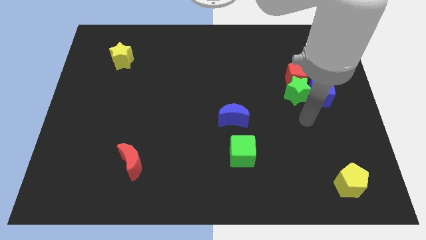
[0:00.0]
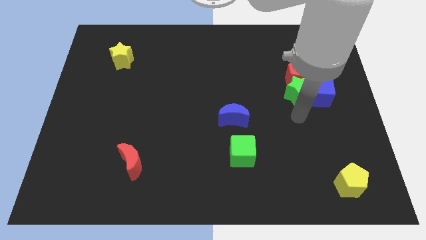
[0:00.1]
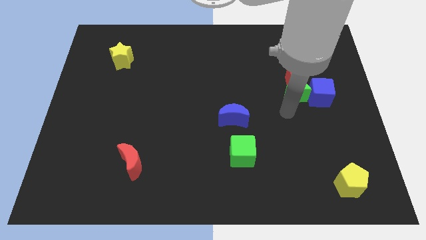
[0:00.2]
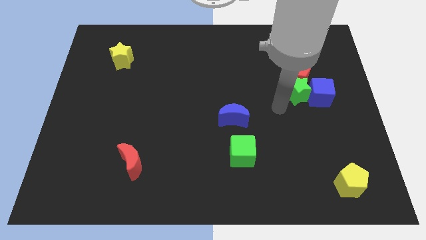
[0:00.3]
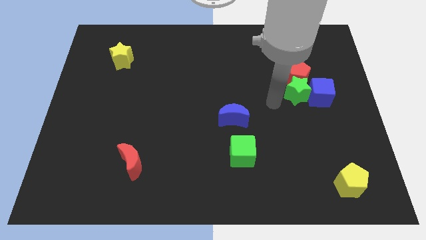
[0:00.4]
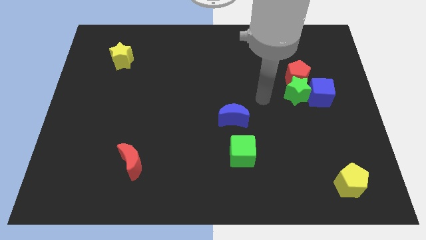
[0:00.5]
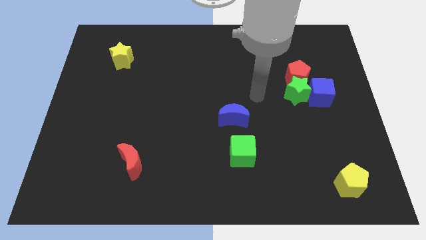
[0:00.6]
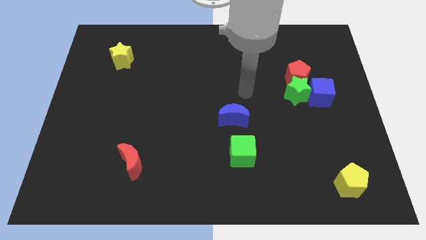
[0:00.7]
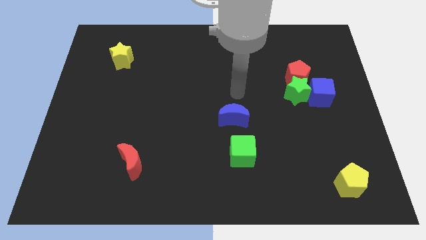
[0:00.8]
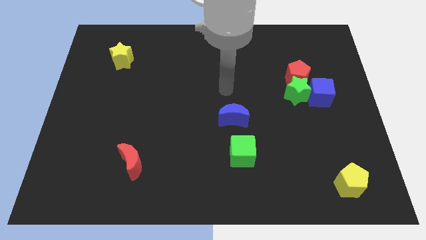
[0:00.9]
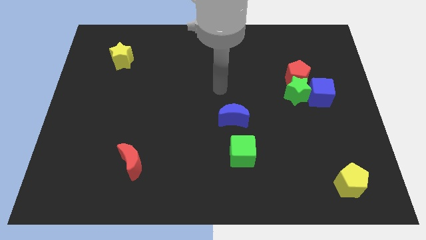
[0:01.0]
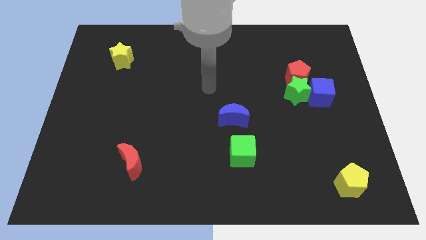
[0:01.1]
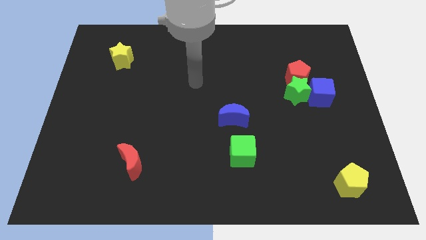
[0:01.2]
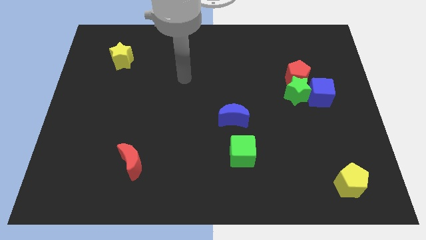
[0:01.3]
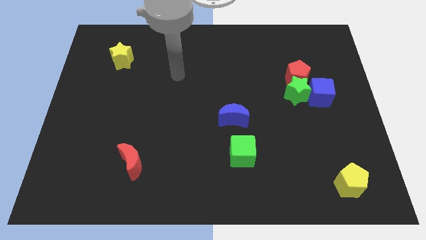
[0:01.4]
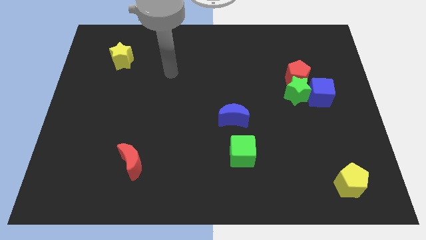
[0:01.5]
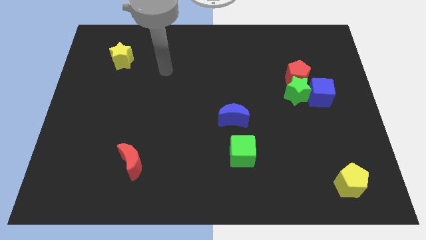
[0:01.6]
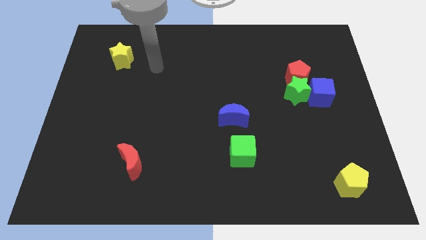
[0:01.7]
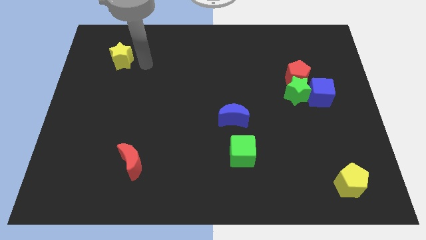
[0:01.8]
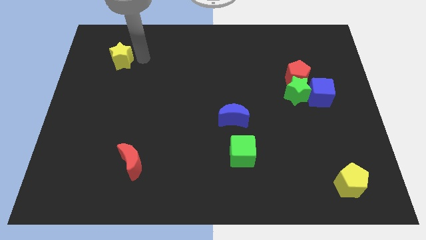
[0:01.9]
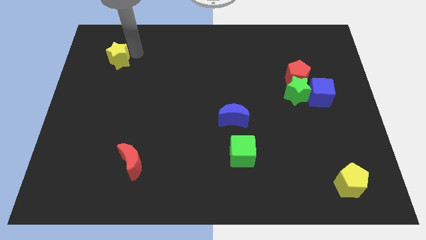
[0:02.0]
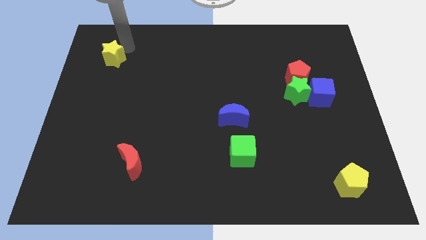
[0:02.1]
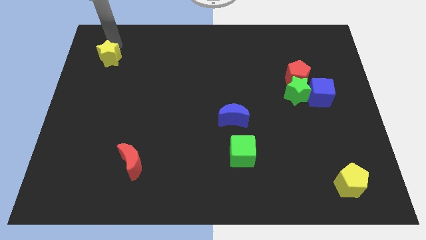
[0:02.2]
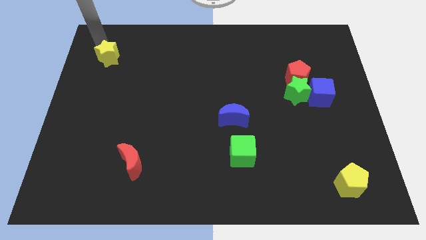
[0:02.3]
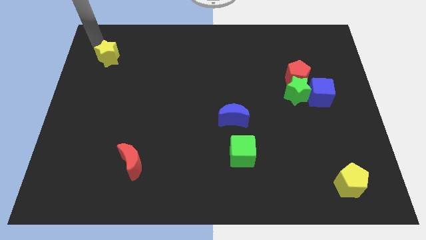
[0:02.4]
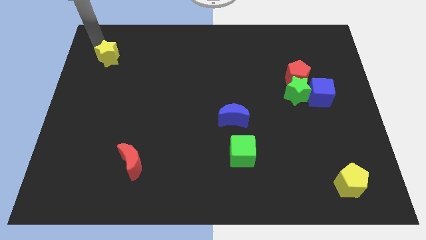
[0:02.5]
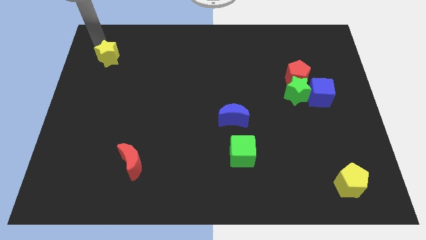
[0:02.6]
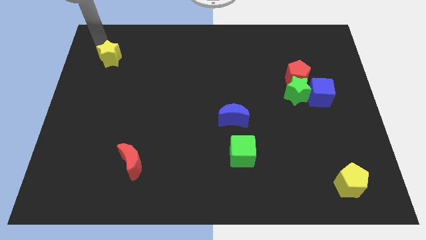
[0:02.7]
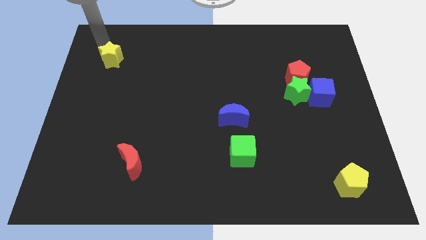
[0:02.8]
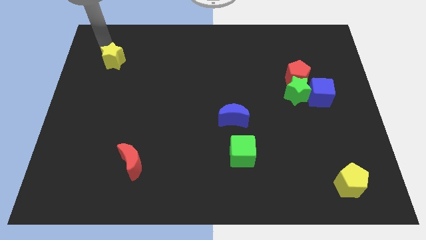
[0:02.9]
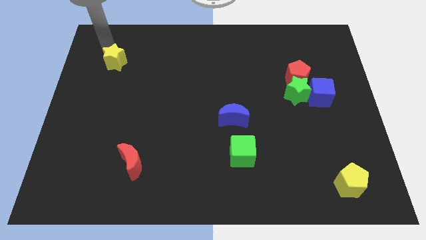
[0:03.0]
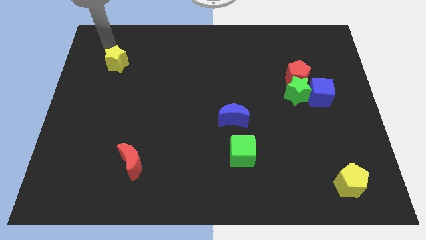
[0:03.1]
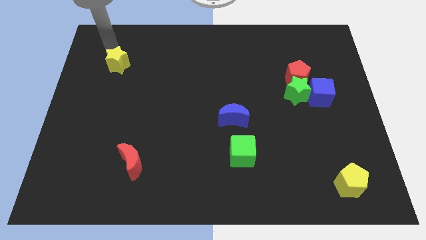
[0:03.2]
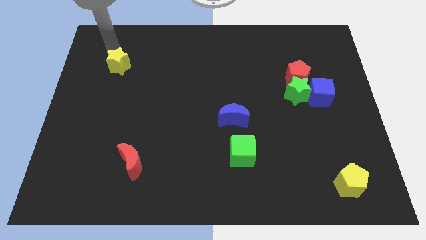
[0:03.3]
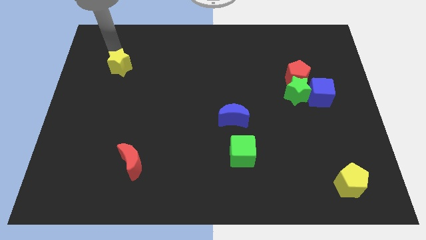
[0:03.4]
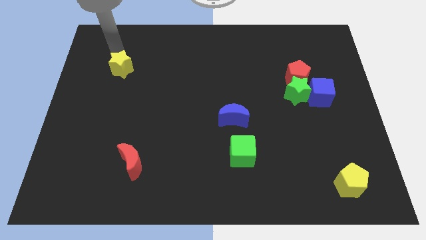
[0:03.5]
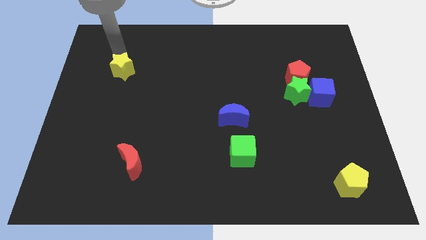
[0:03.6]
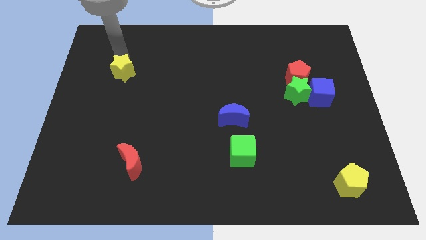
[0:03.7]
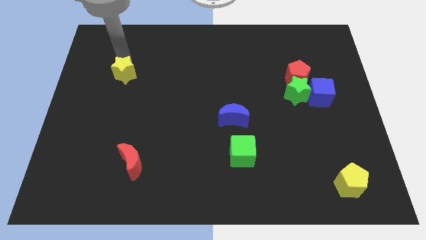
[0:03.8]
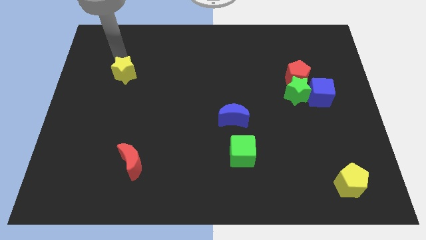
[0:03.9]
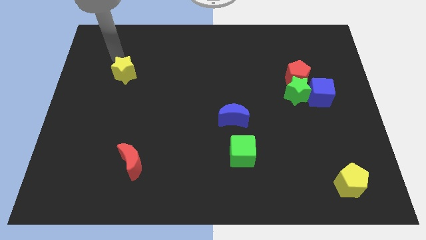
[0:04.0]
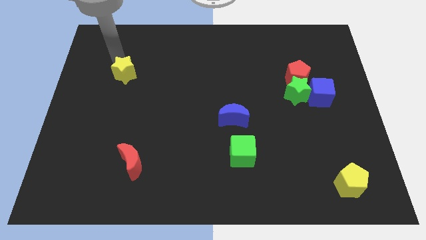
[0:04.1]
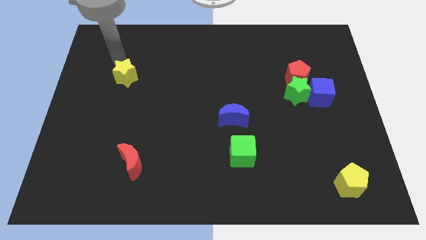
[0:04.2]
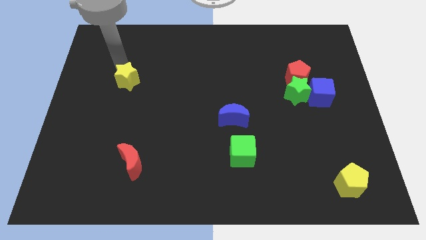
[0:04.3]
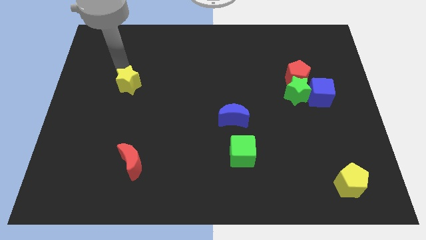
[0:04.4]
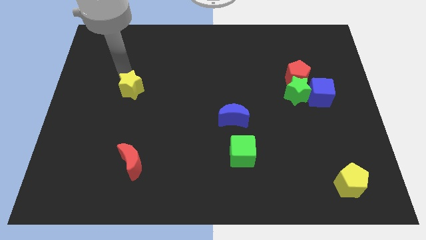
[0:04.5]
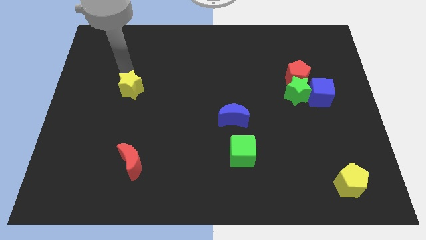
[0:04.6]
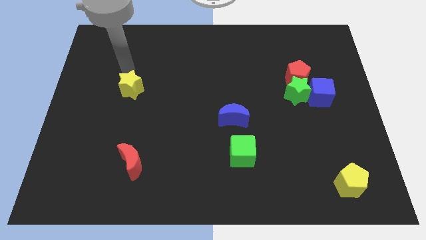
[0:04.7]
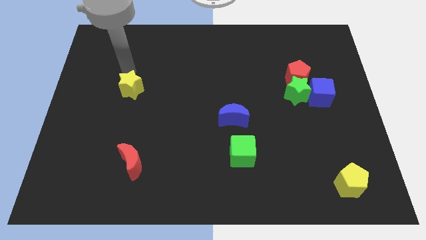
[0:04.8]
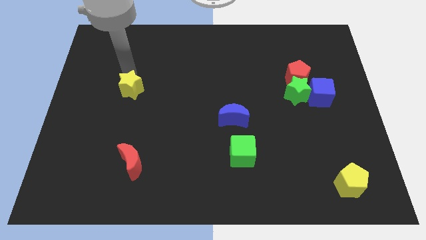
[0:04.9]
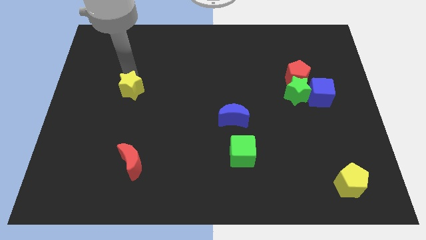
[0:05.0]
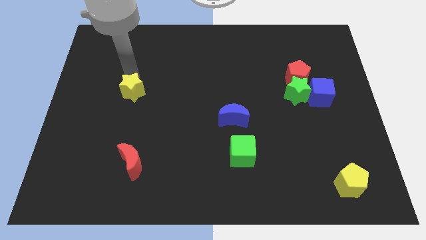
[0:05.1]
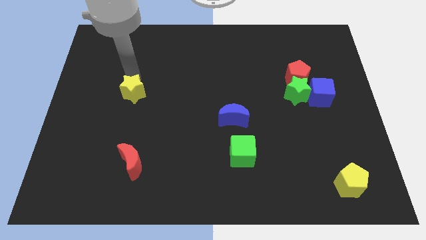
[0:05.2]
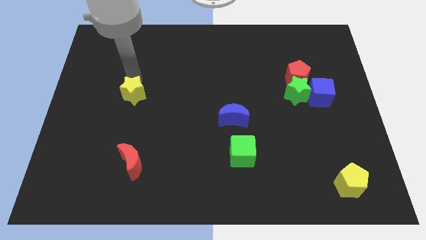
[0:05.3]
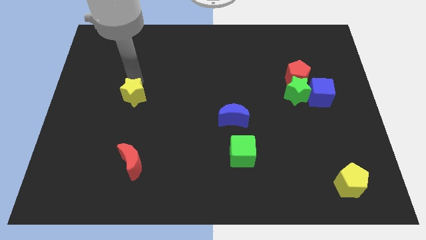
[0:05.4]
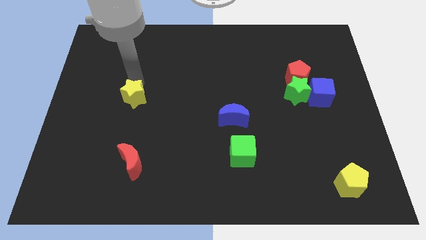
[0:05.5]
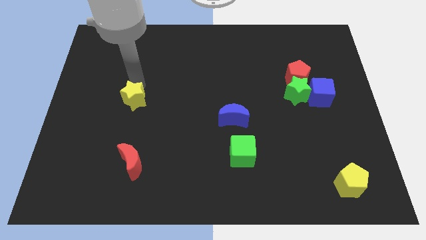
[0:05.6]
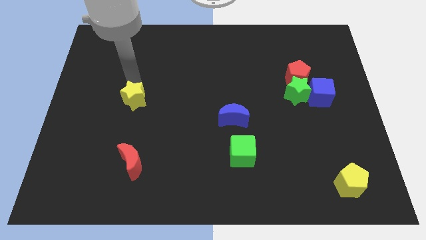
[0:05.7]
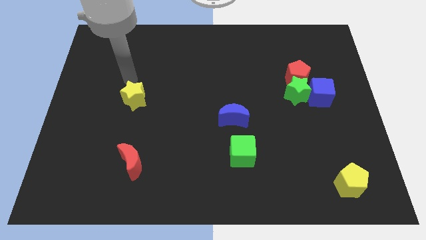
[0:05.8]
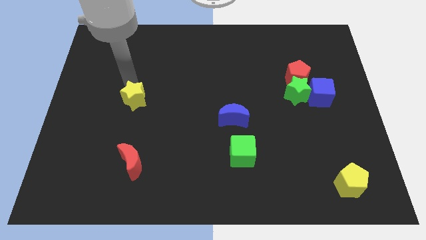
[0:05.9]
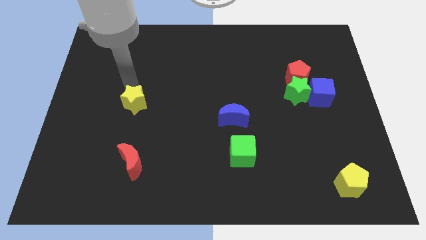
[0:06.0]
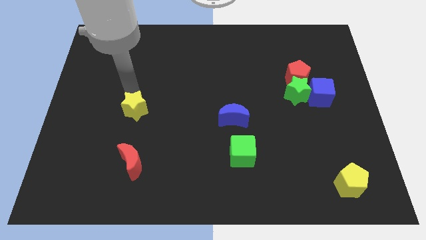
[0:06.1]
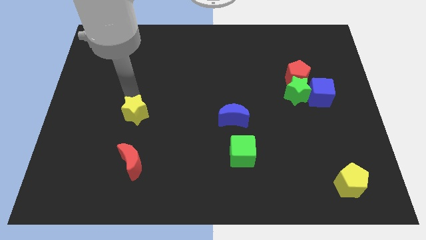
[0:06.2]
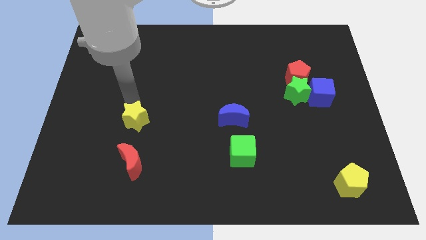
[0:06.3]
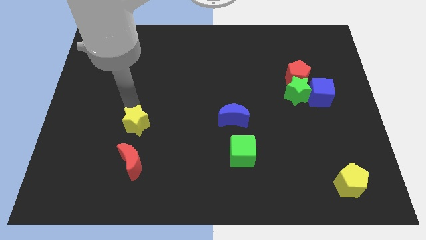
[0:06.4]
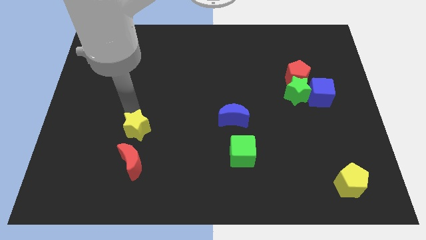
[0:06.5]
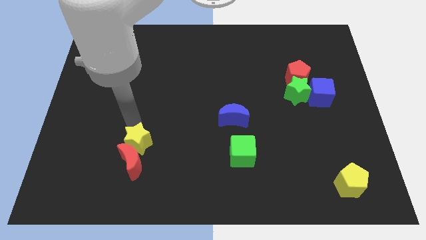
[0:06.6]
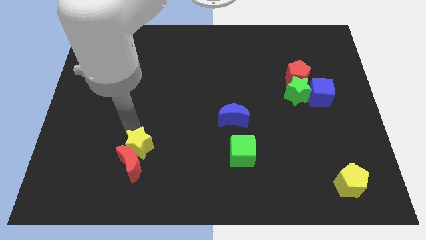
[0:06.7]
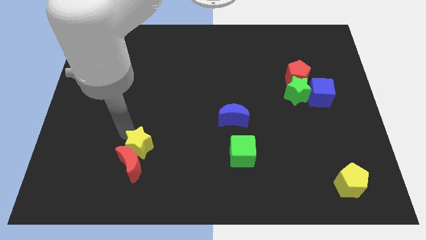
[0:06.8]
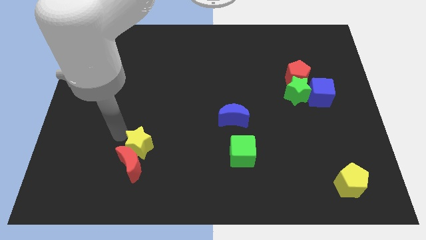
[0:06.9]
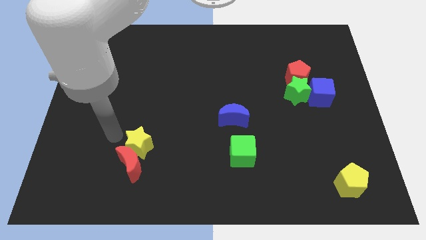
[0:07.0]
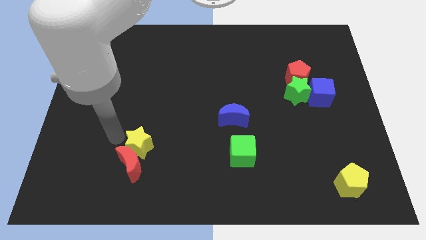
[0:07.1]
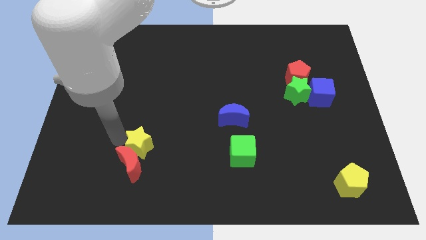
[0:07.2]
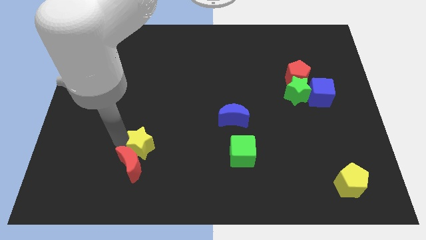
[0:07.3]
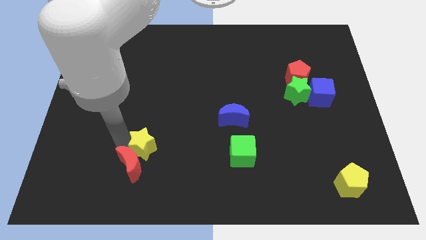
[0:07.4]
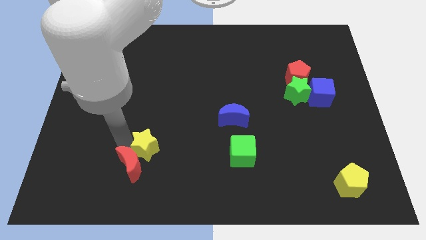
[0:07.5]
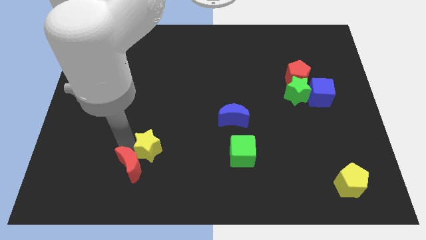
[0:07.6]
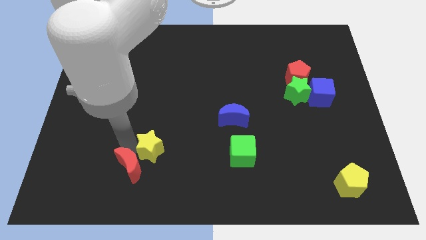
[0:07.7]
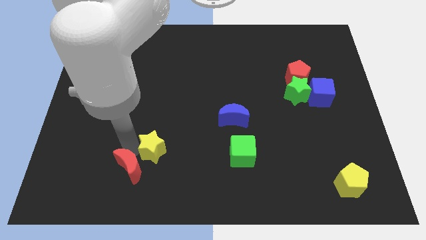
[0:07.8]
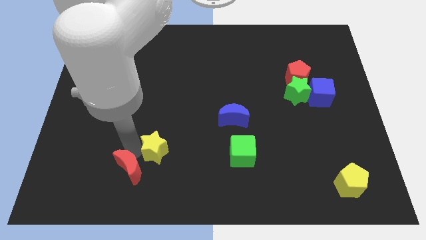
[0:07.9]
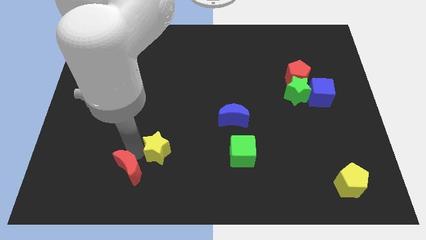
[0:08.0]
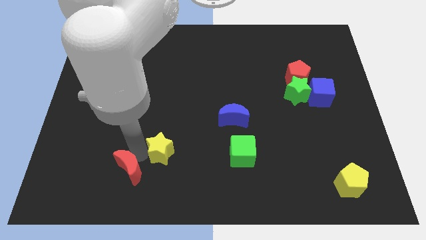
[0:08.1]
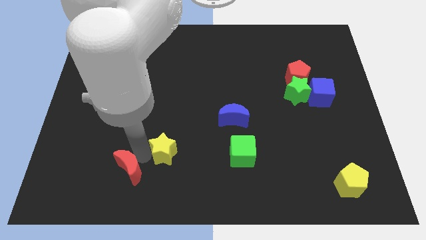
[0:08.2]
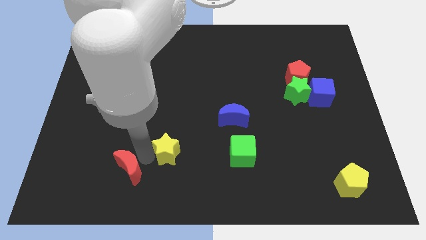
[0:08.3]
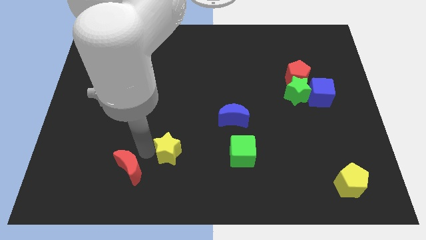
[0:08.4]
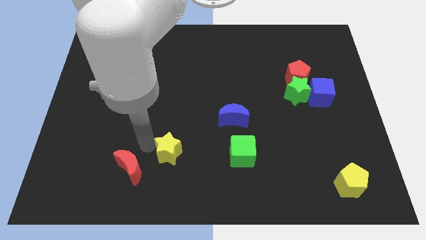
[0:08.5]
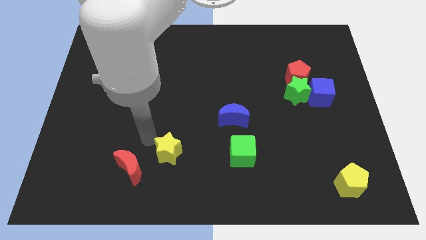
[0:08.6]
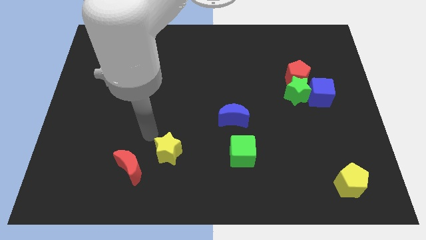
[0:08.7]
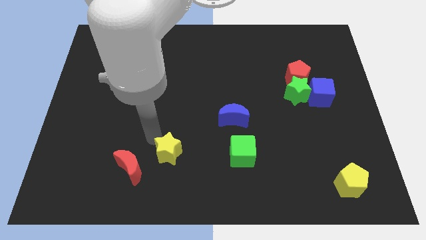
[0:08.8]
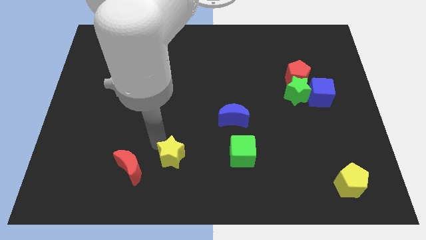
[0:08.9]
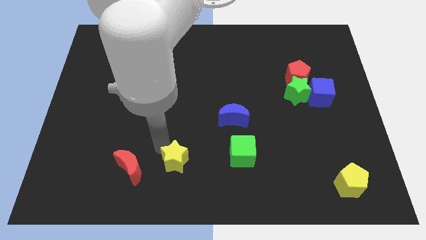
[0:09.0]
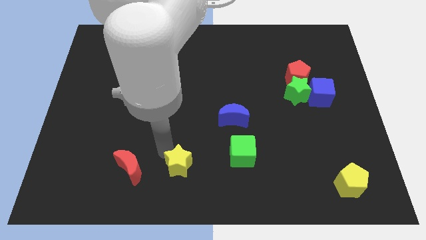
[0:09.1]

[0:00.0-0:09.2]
move the yellow star to the bottom side
